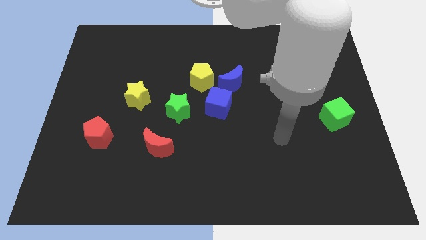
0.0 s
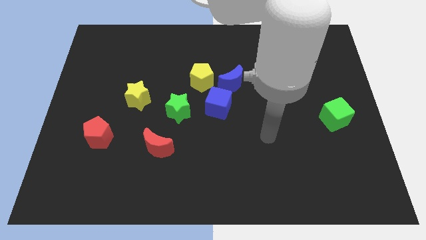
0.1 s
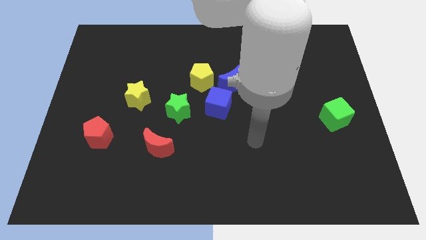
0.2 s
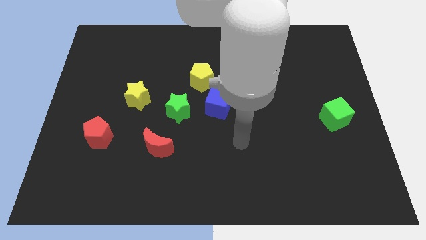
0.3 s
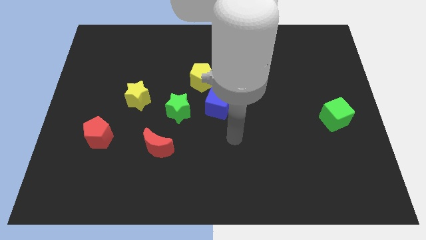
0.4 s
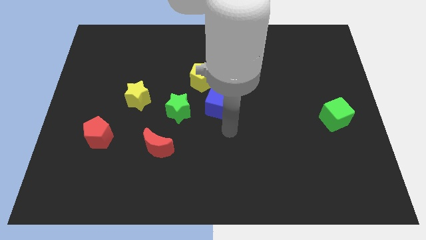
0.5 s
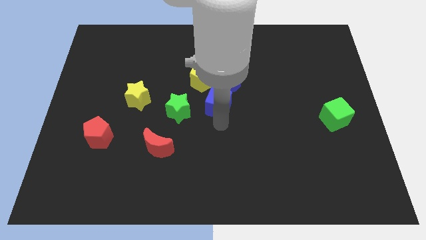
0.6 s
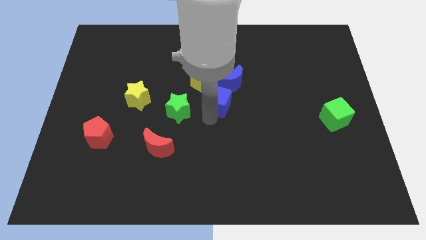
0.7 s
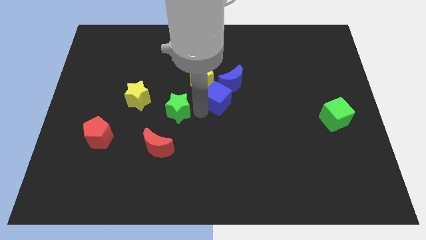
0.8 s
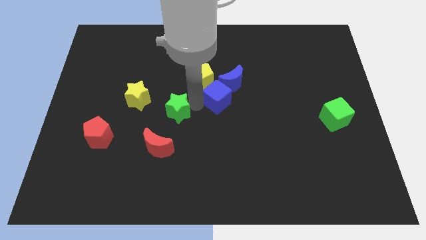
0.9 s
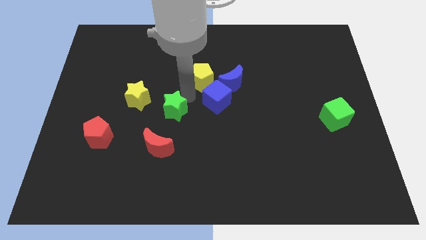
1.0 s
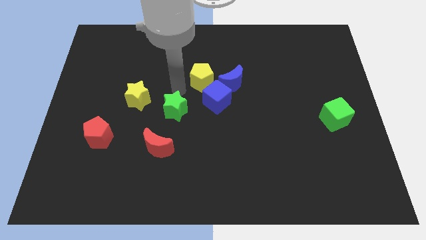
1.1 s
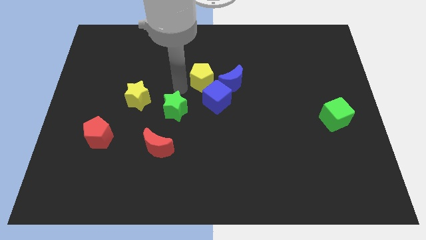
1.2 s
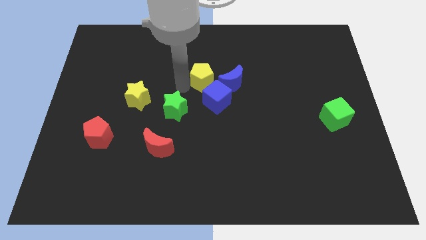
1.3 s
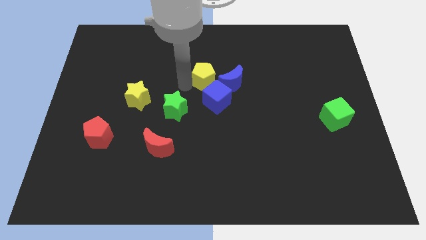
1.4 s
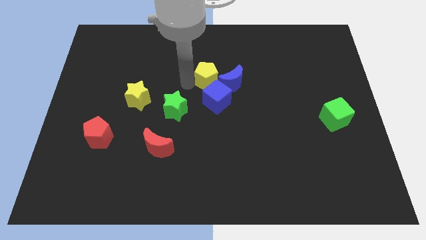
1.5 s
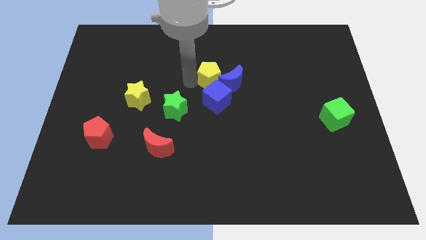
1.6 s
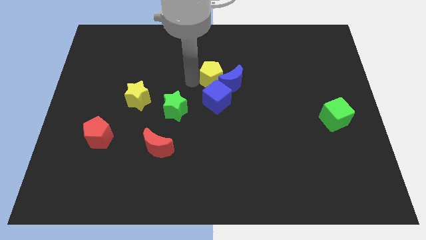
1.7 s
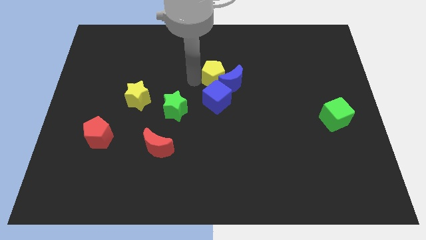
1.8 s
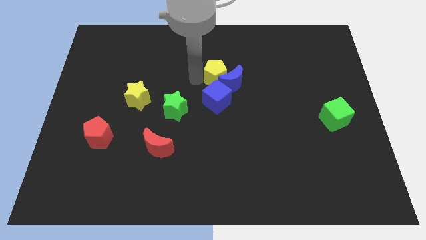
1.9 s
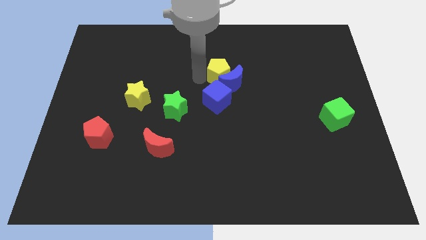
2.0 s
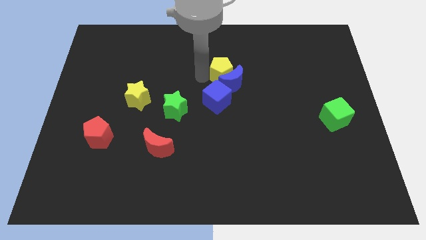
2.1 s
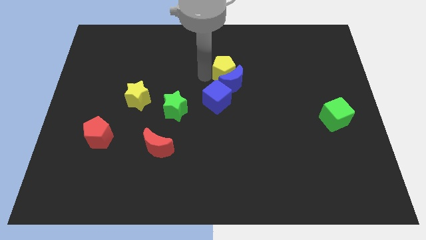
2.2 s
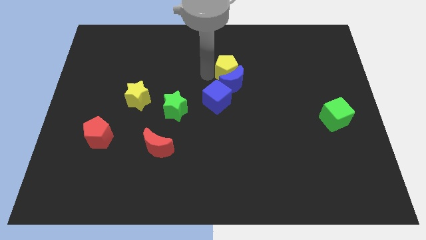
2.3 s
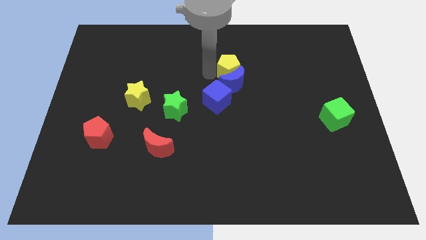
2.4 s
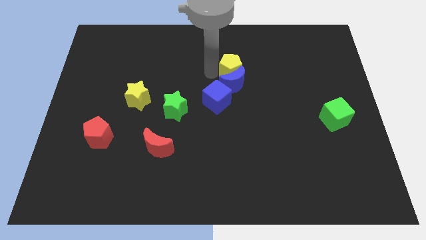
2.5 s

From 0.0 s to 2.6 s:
move the yellow pentagon somewhat right

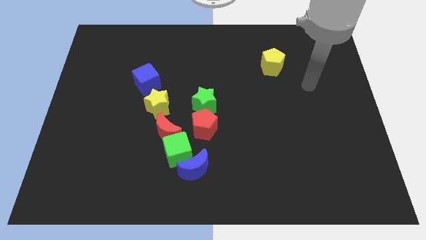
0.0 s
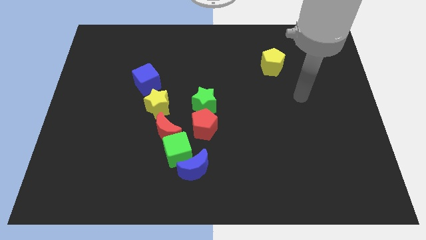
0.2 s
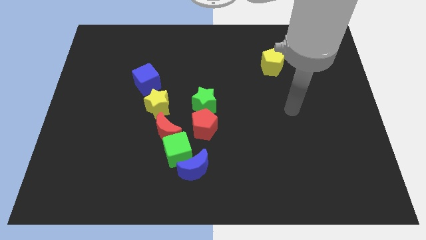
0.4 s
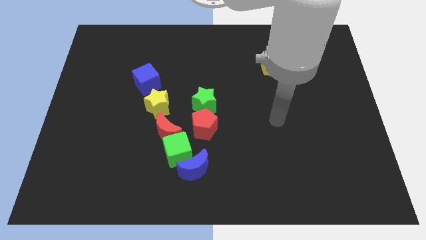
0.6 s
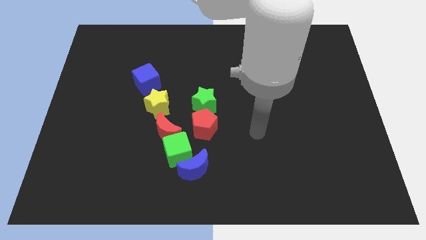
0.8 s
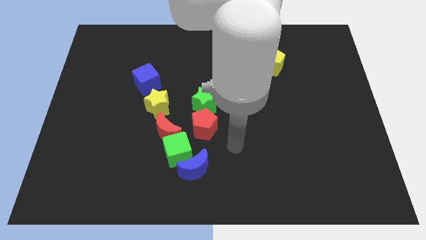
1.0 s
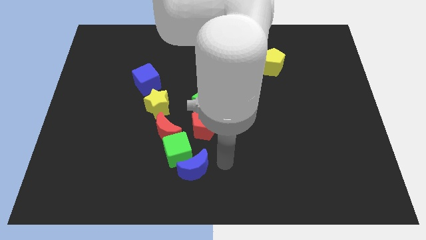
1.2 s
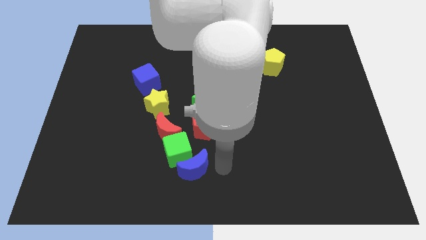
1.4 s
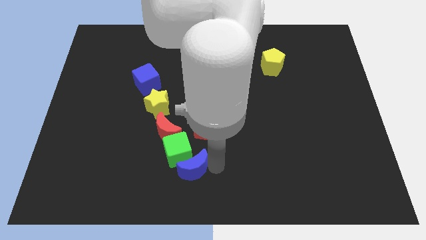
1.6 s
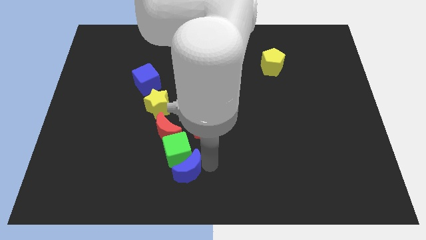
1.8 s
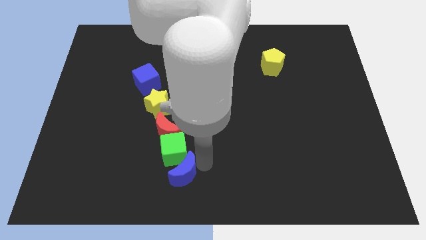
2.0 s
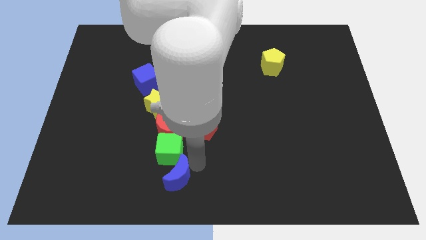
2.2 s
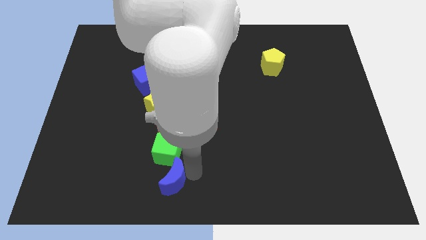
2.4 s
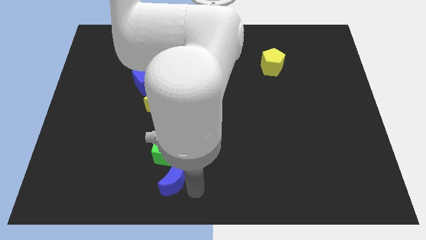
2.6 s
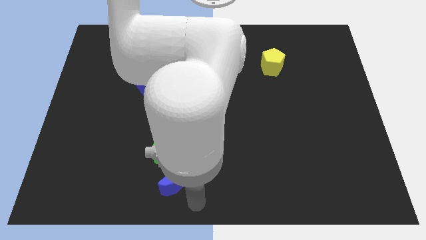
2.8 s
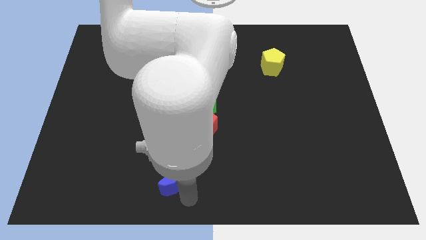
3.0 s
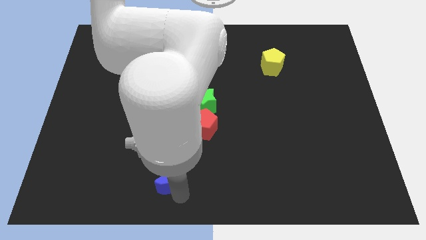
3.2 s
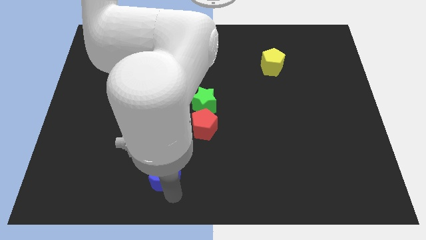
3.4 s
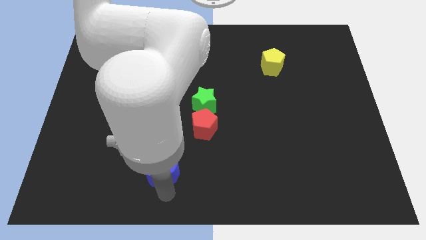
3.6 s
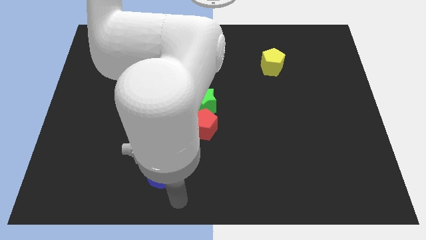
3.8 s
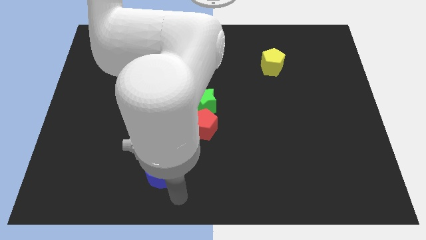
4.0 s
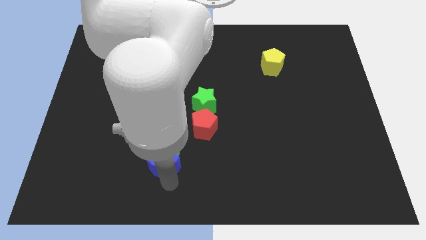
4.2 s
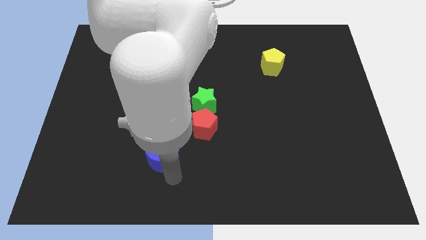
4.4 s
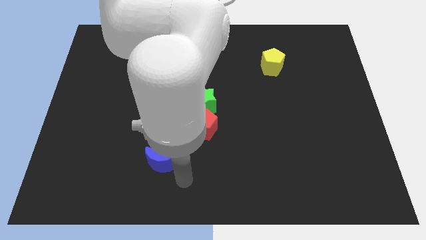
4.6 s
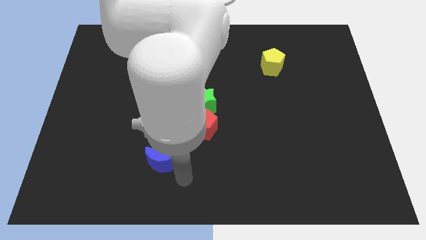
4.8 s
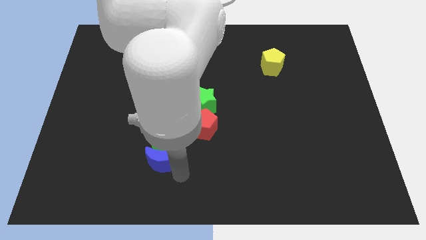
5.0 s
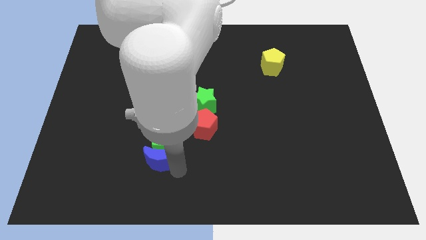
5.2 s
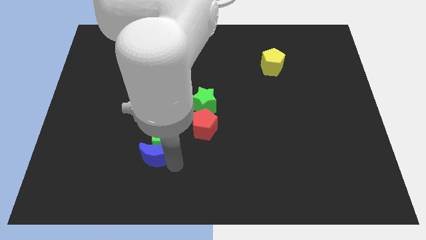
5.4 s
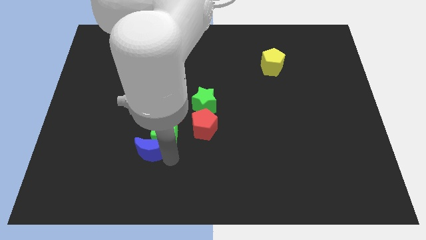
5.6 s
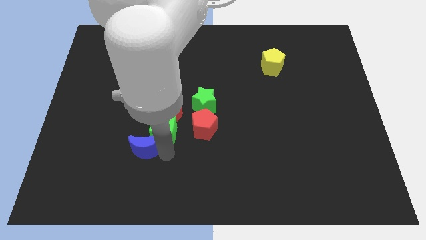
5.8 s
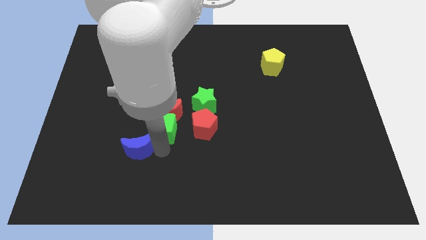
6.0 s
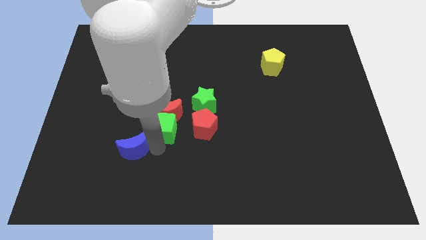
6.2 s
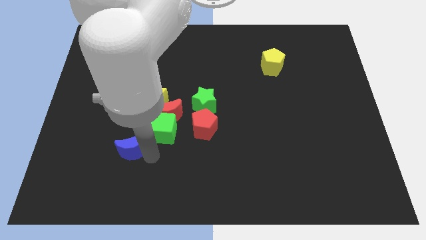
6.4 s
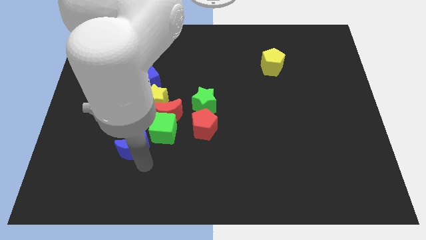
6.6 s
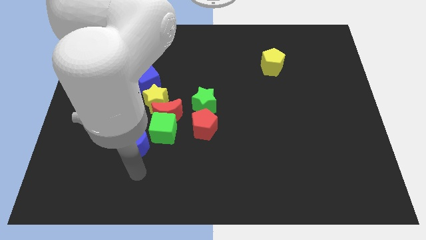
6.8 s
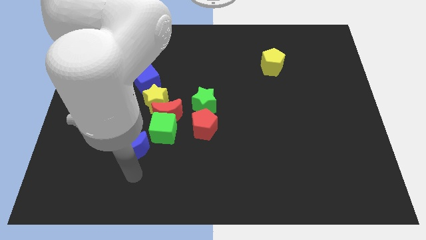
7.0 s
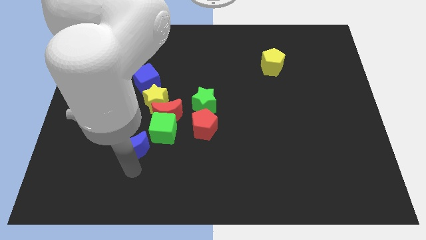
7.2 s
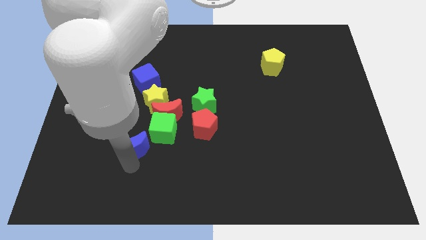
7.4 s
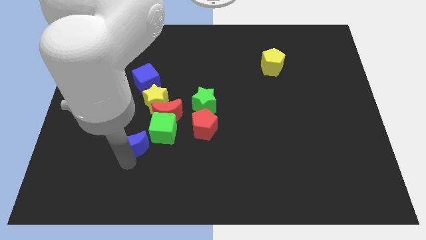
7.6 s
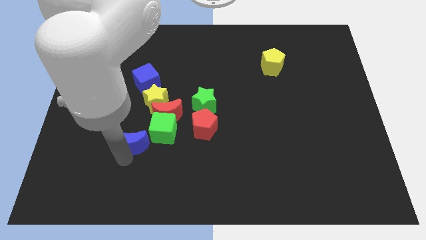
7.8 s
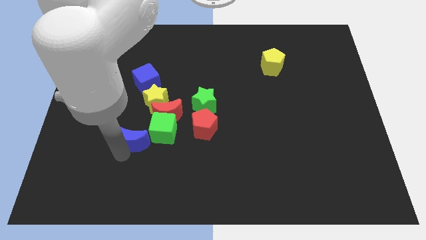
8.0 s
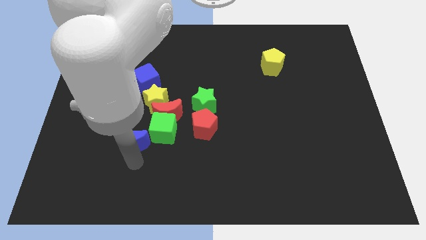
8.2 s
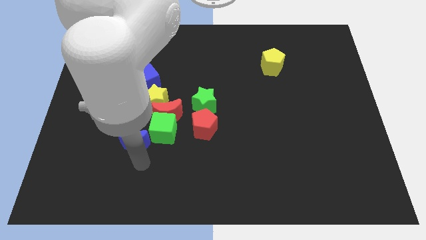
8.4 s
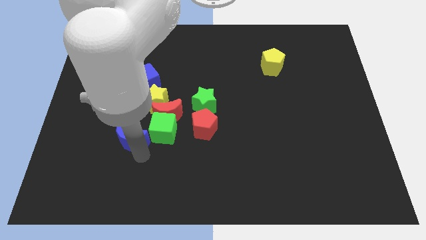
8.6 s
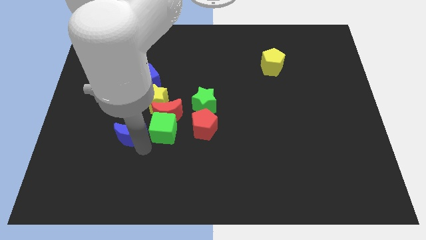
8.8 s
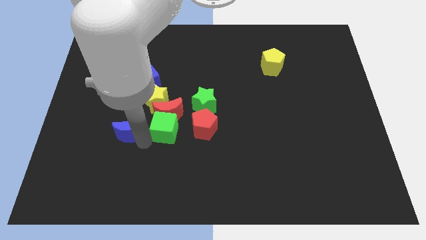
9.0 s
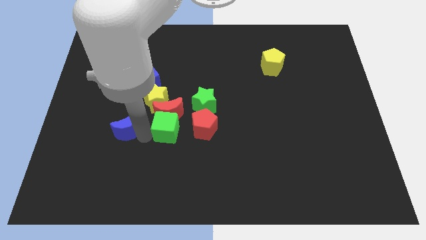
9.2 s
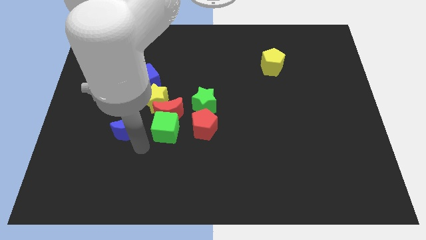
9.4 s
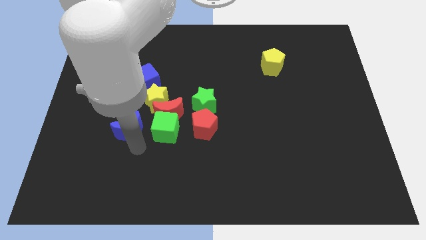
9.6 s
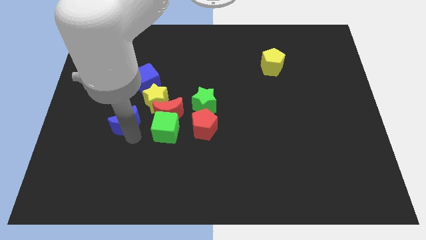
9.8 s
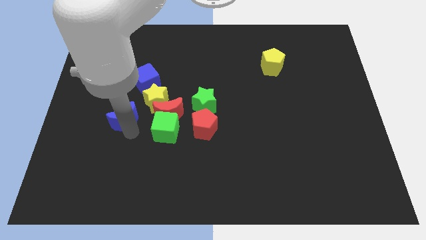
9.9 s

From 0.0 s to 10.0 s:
move the blue moon up and then to the left

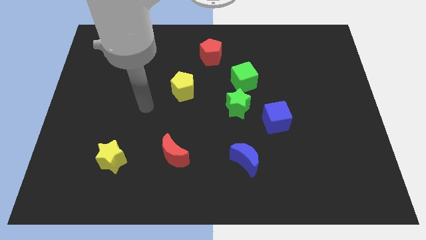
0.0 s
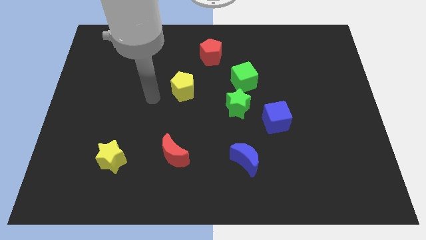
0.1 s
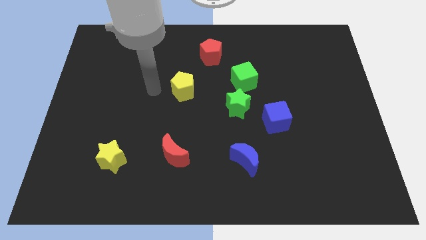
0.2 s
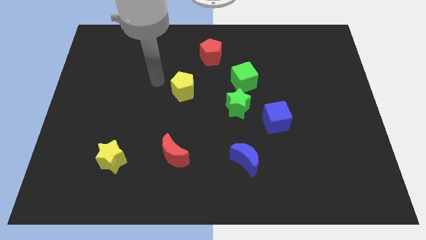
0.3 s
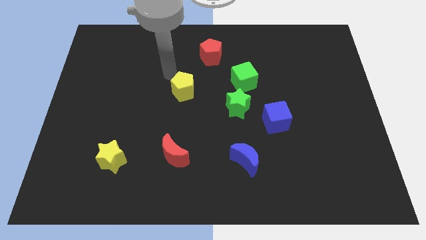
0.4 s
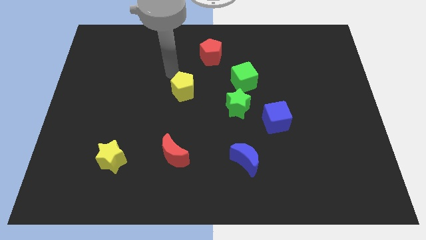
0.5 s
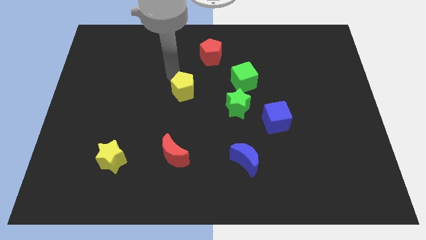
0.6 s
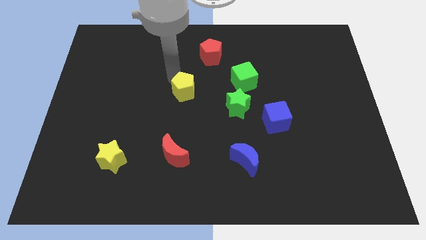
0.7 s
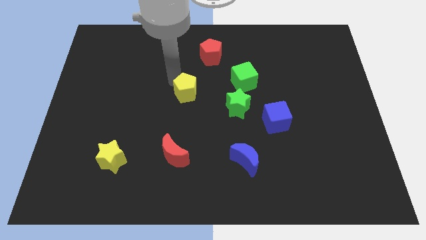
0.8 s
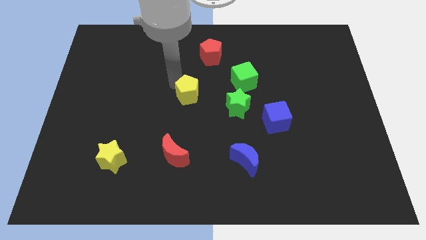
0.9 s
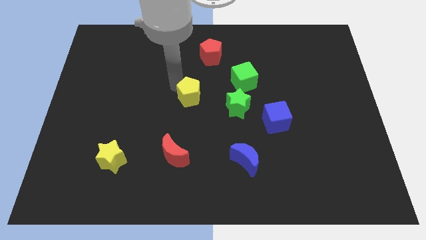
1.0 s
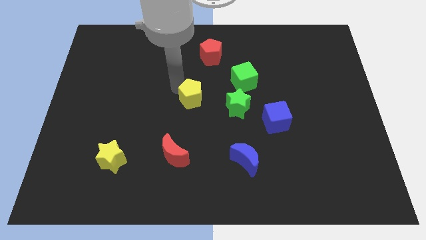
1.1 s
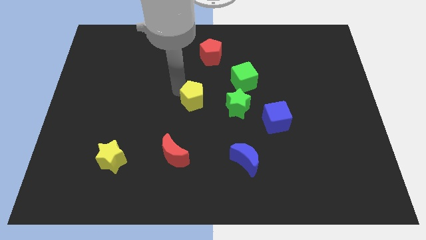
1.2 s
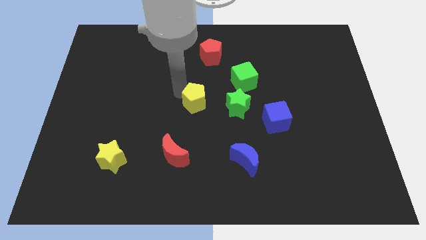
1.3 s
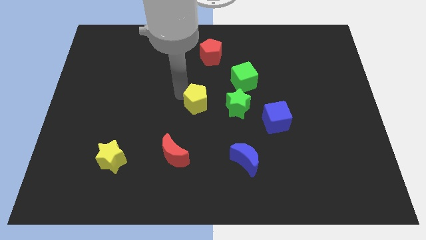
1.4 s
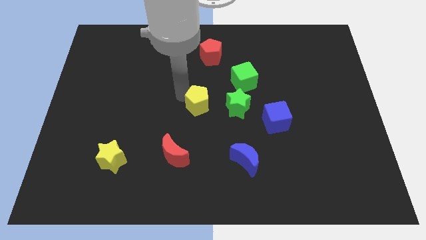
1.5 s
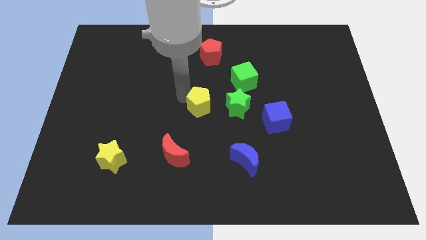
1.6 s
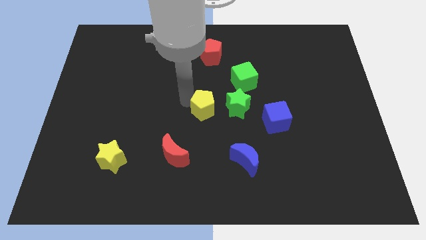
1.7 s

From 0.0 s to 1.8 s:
push the yellow pentagon a bit down and then to the right
